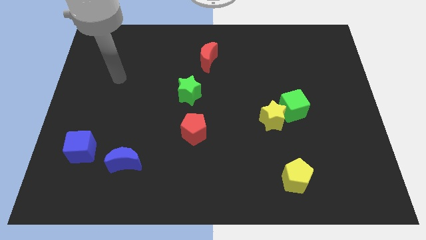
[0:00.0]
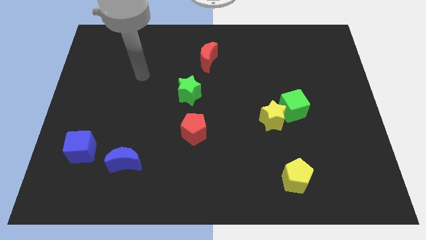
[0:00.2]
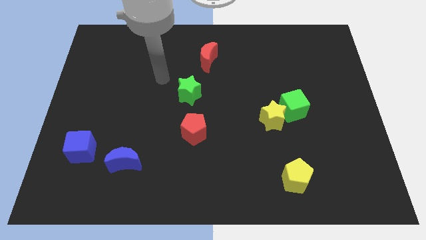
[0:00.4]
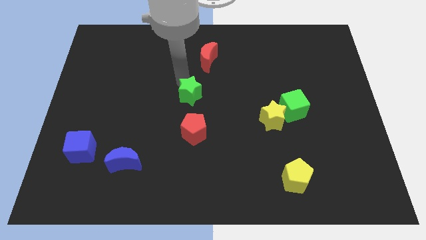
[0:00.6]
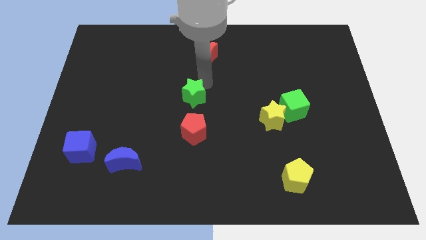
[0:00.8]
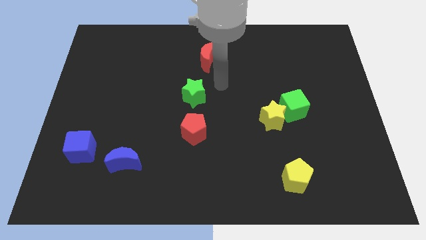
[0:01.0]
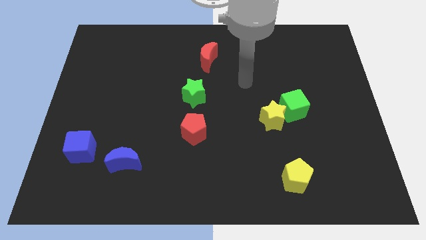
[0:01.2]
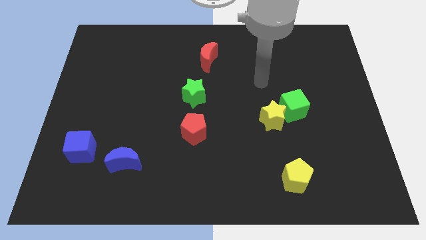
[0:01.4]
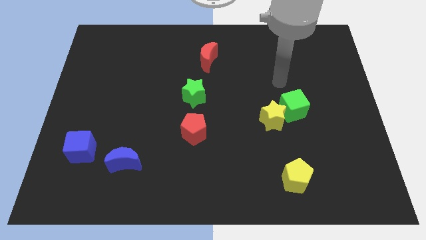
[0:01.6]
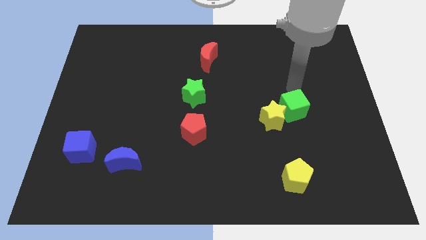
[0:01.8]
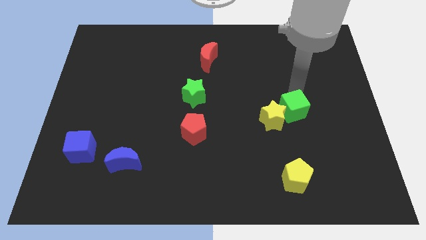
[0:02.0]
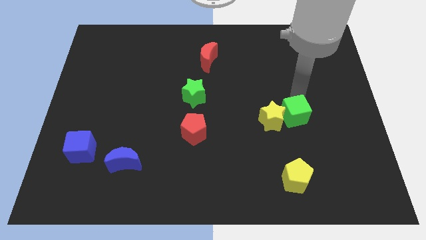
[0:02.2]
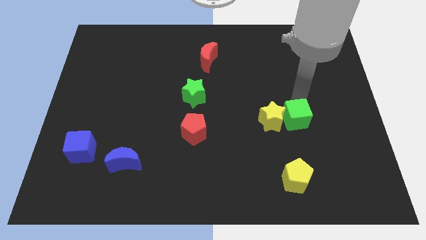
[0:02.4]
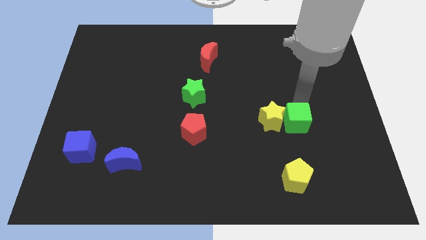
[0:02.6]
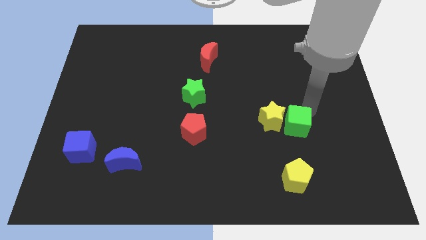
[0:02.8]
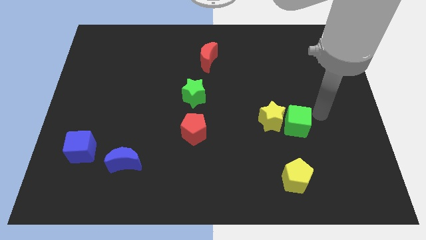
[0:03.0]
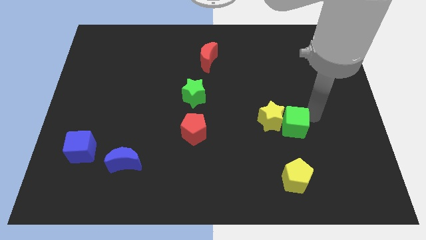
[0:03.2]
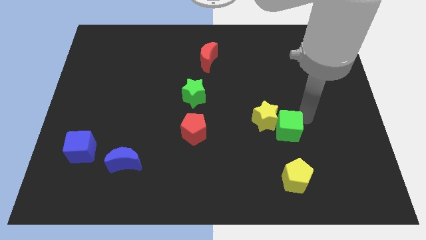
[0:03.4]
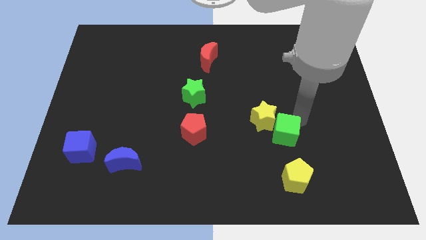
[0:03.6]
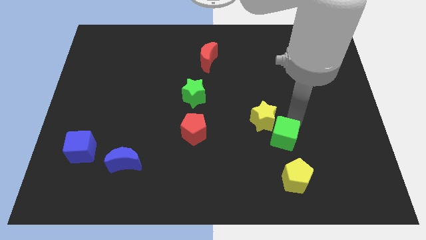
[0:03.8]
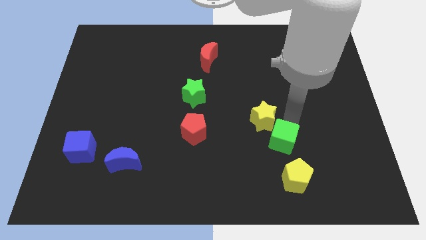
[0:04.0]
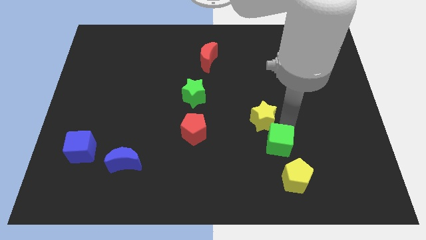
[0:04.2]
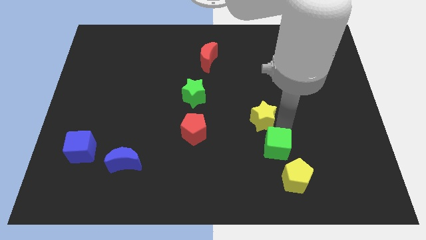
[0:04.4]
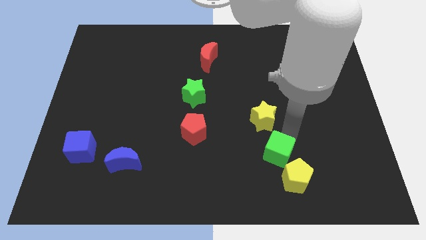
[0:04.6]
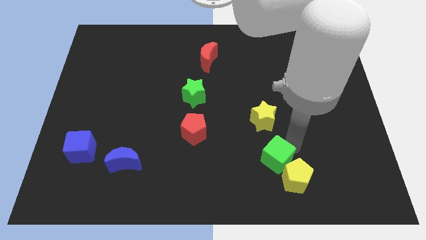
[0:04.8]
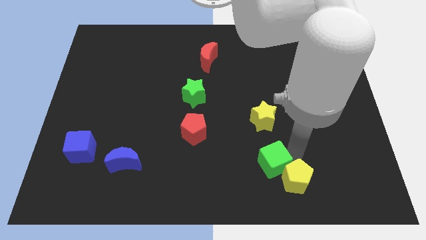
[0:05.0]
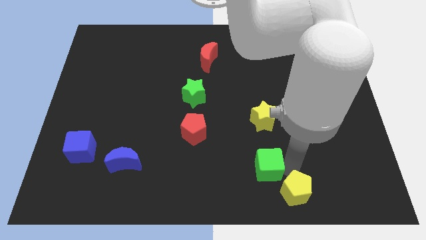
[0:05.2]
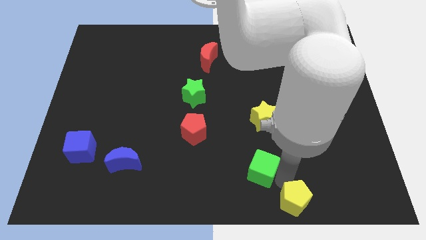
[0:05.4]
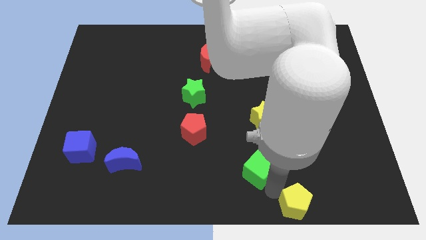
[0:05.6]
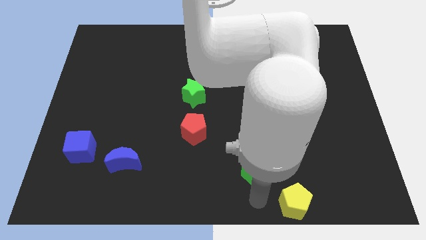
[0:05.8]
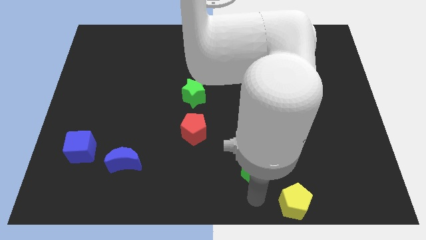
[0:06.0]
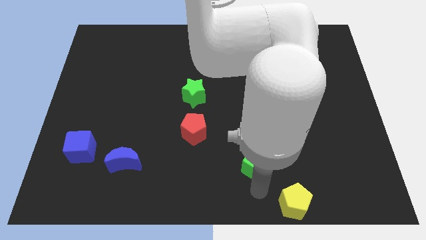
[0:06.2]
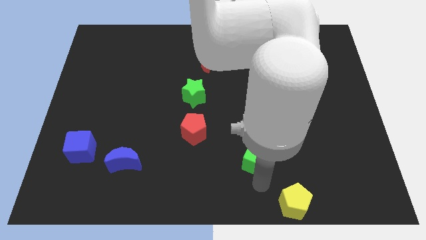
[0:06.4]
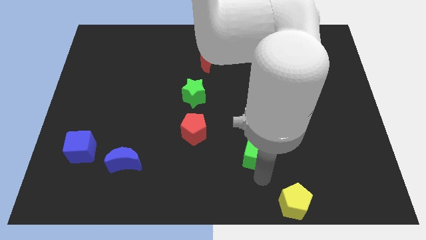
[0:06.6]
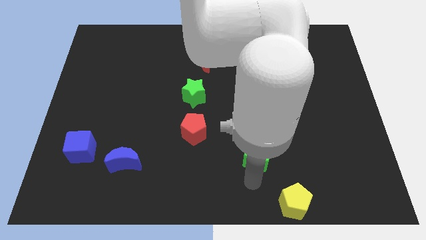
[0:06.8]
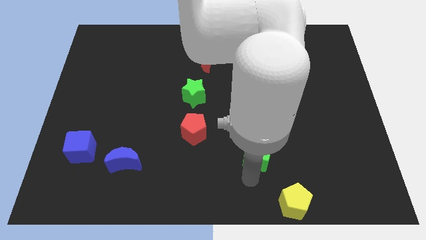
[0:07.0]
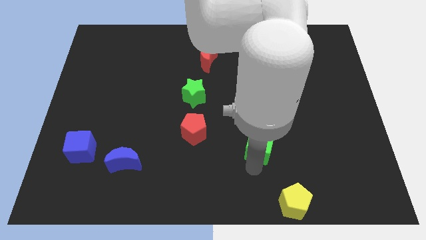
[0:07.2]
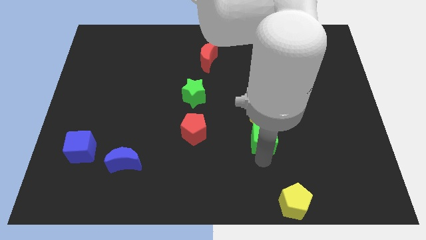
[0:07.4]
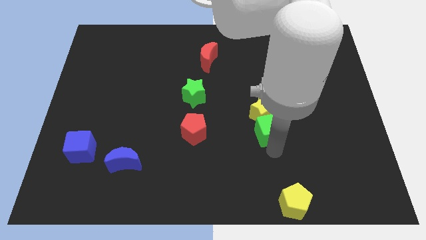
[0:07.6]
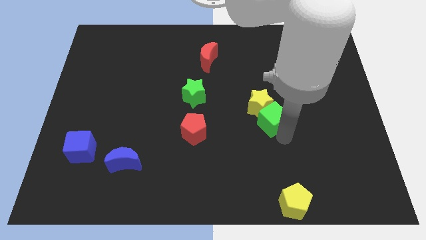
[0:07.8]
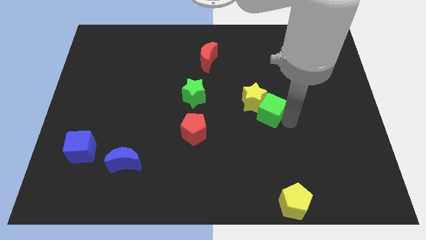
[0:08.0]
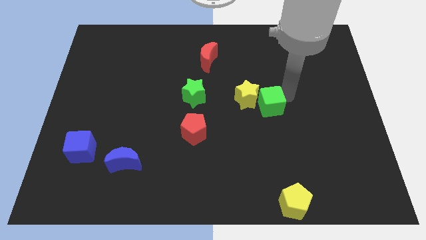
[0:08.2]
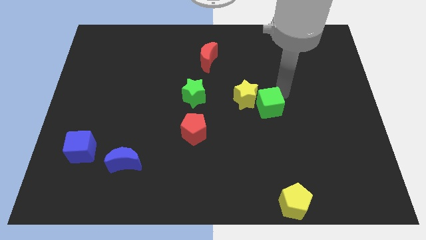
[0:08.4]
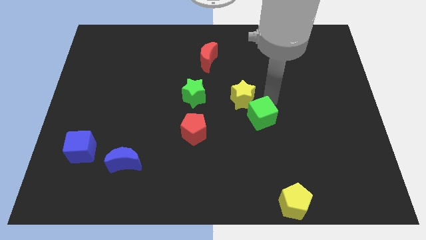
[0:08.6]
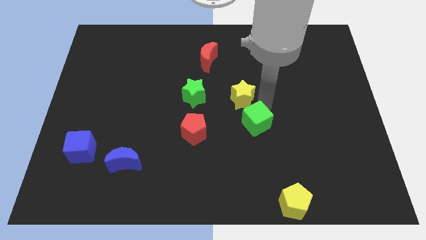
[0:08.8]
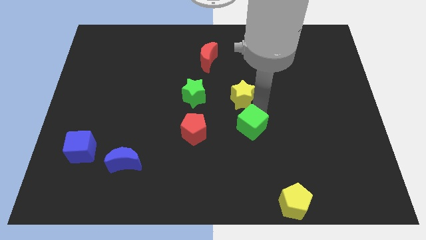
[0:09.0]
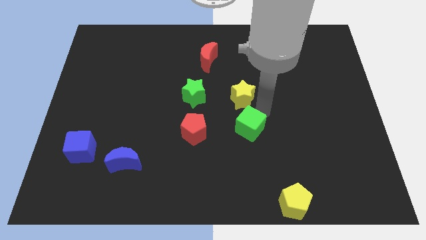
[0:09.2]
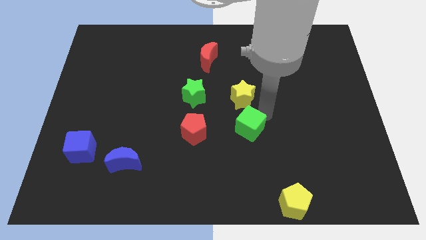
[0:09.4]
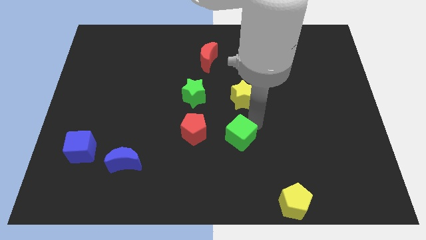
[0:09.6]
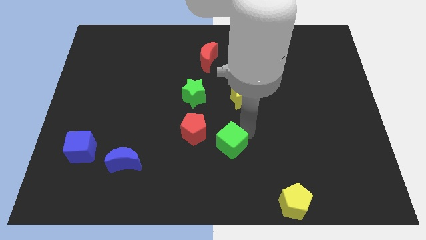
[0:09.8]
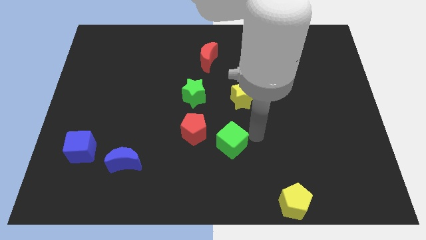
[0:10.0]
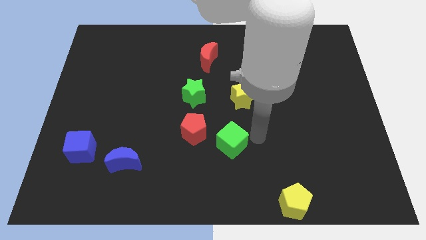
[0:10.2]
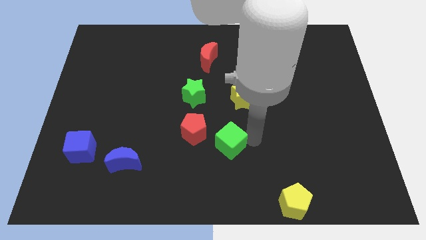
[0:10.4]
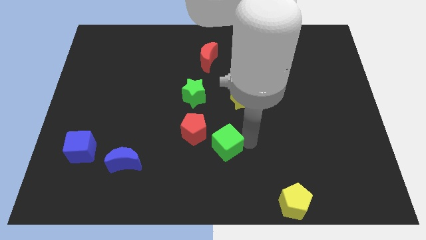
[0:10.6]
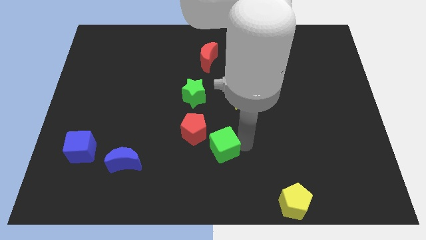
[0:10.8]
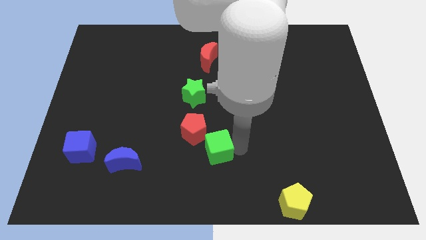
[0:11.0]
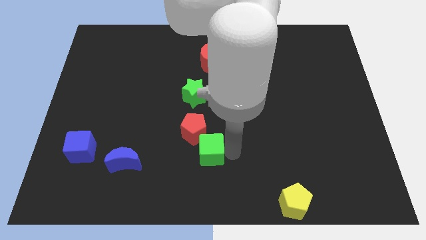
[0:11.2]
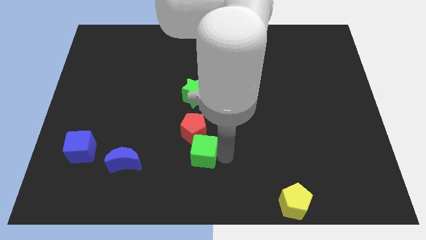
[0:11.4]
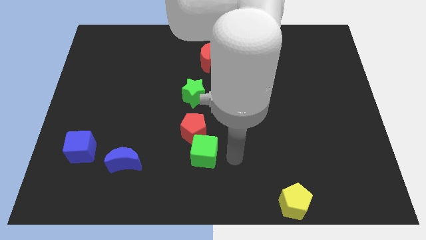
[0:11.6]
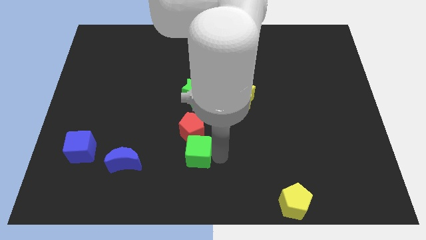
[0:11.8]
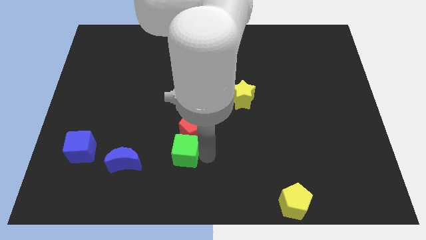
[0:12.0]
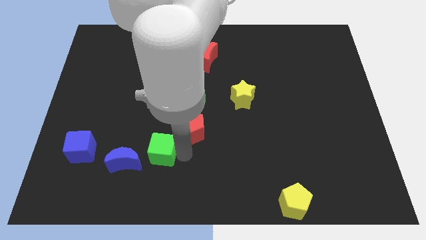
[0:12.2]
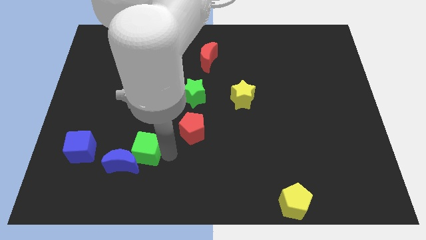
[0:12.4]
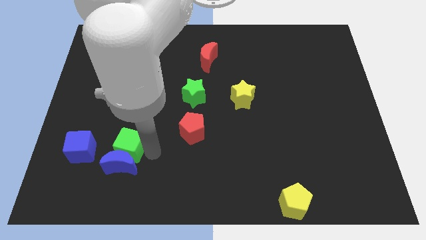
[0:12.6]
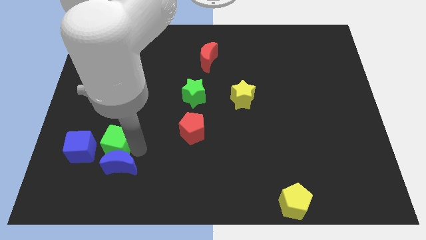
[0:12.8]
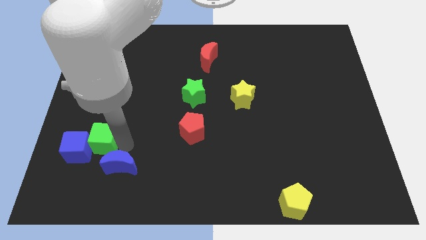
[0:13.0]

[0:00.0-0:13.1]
put the green cube next to the blue cube
